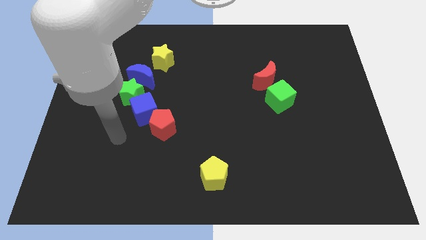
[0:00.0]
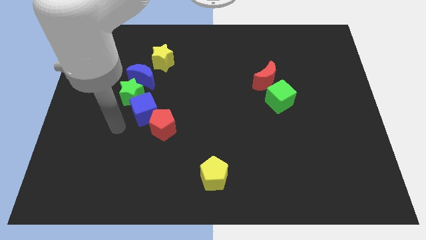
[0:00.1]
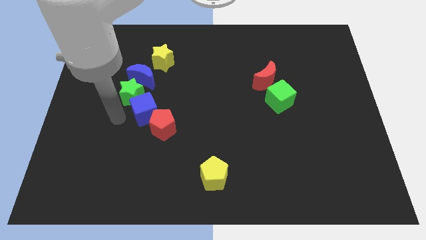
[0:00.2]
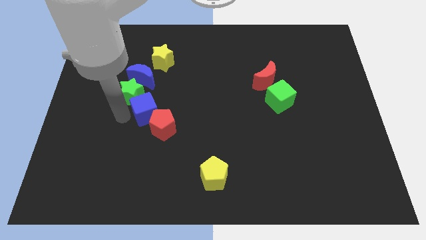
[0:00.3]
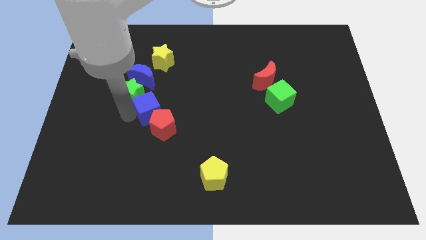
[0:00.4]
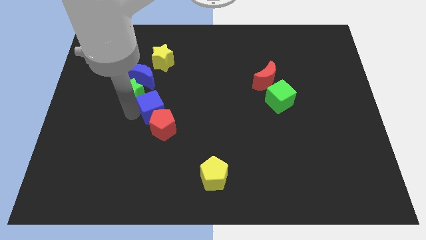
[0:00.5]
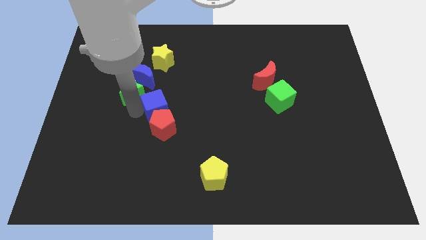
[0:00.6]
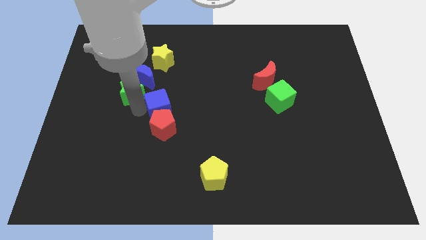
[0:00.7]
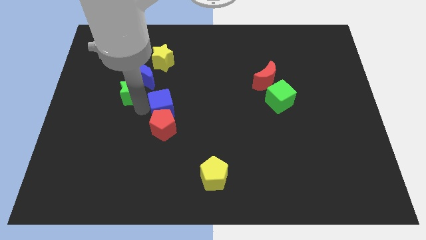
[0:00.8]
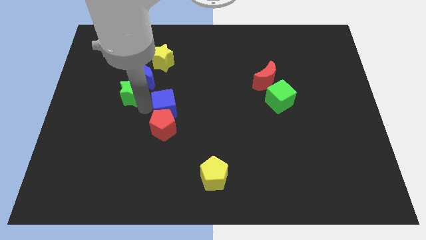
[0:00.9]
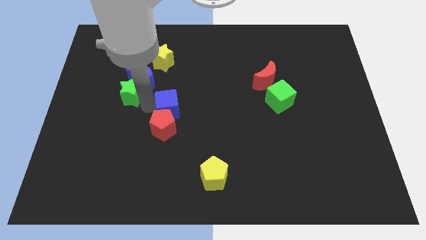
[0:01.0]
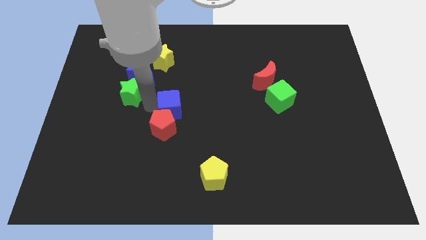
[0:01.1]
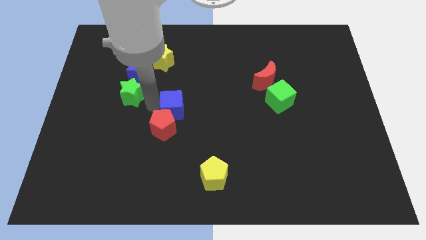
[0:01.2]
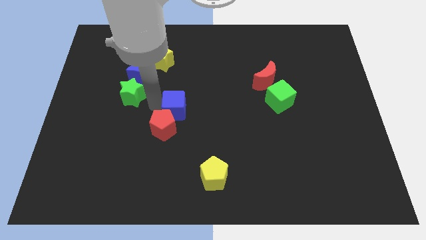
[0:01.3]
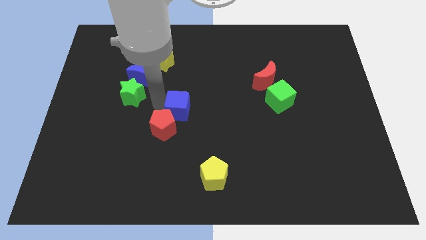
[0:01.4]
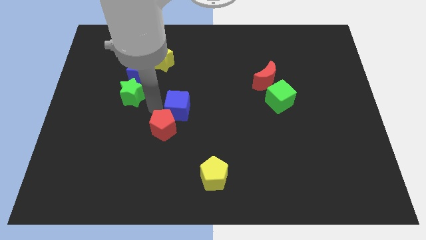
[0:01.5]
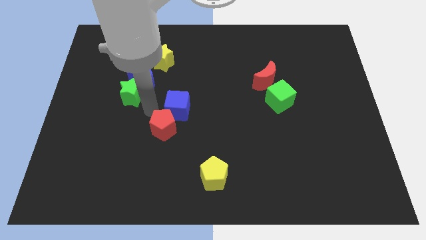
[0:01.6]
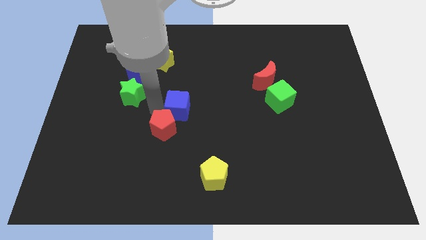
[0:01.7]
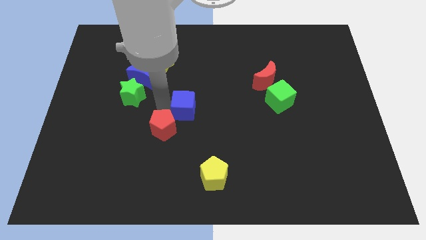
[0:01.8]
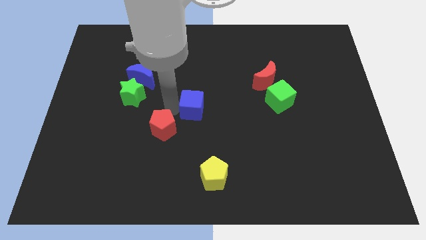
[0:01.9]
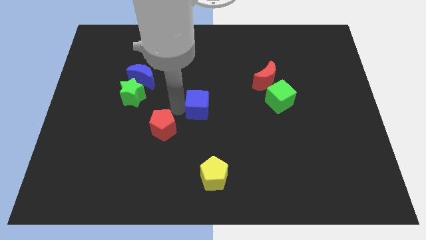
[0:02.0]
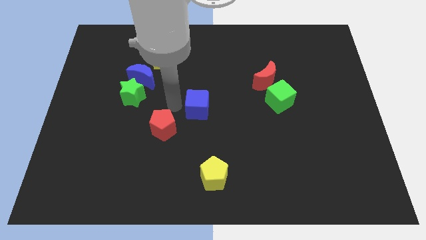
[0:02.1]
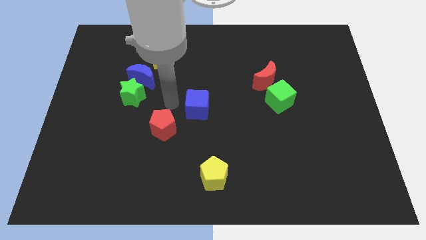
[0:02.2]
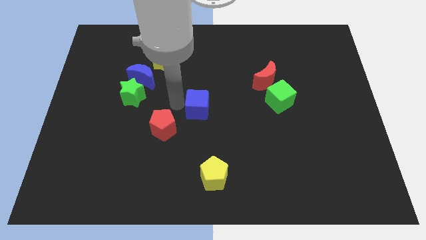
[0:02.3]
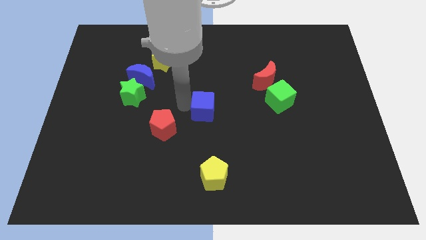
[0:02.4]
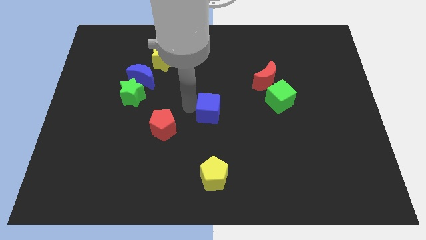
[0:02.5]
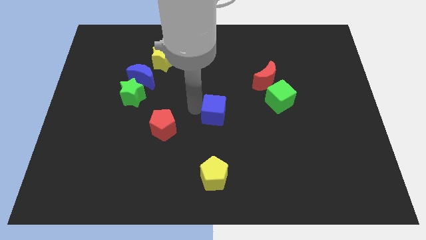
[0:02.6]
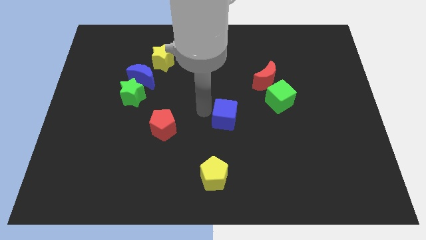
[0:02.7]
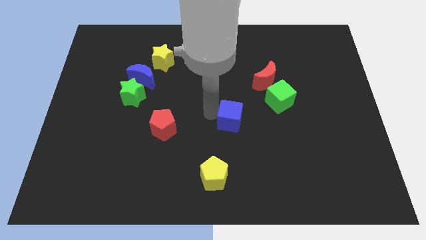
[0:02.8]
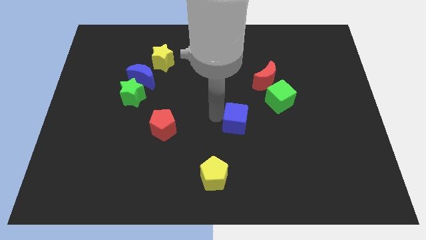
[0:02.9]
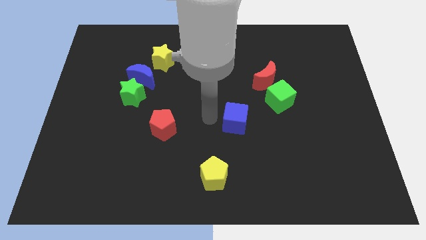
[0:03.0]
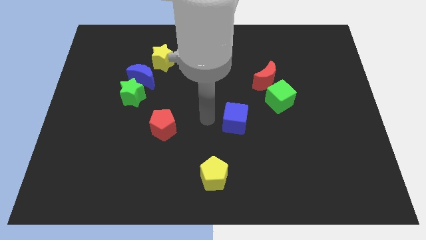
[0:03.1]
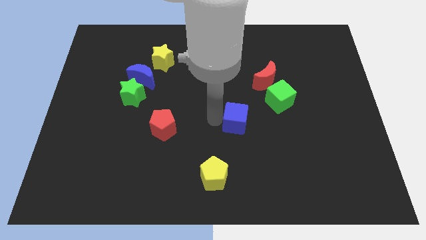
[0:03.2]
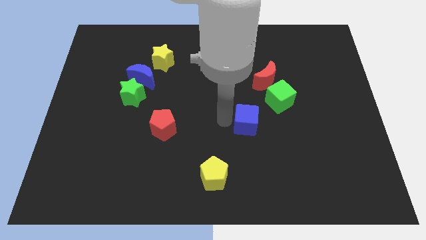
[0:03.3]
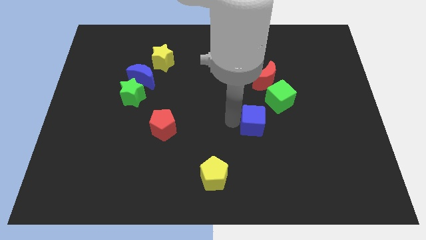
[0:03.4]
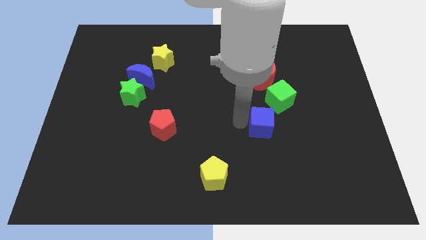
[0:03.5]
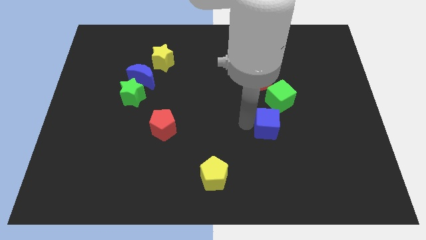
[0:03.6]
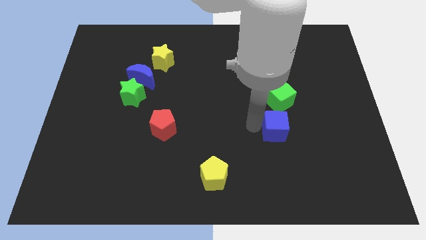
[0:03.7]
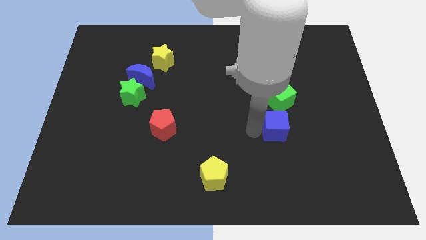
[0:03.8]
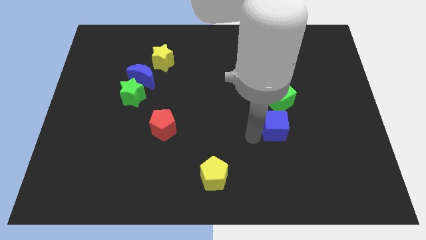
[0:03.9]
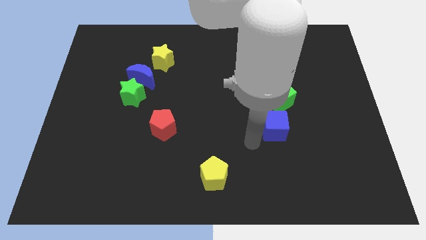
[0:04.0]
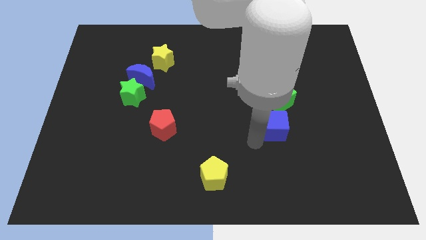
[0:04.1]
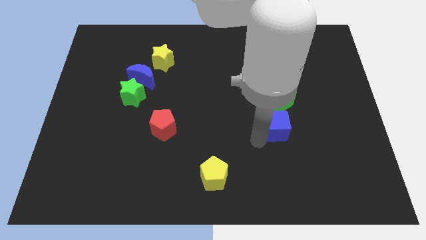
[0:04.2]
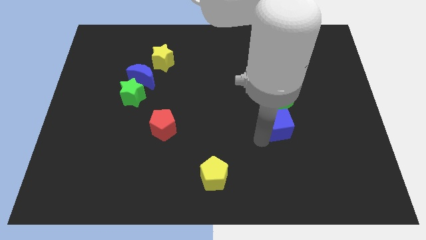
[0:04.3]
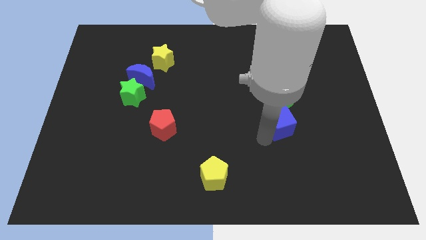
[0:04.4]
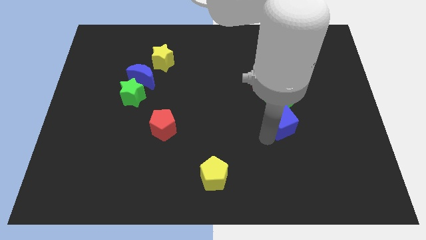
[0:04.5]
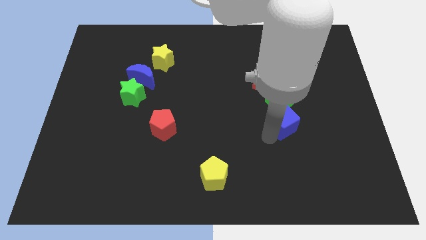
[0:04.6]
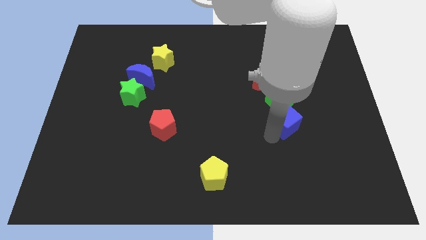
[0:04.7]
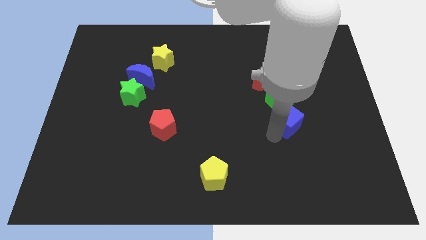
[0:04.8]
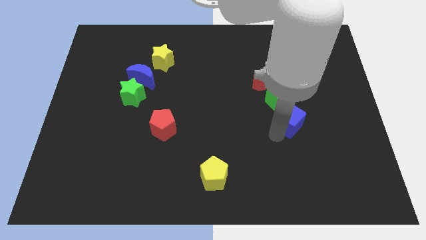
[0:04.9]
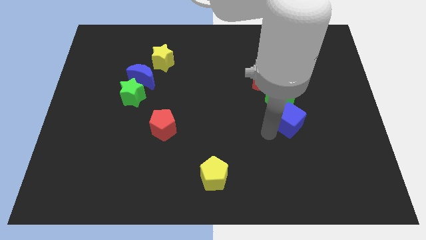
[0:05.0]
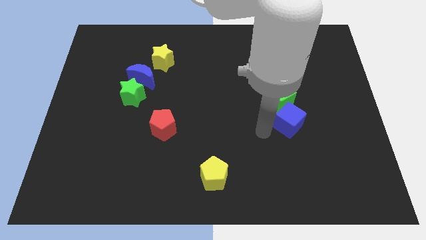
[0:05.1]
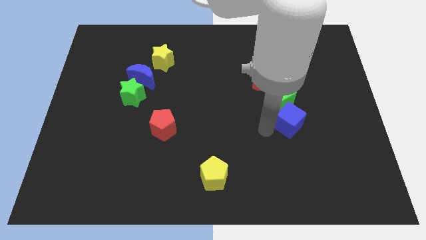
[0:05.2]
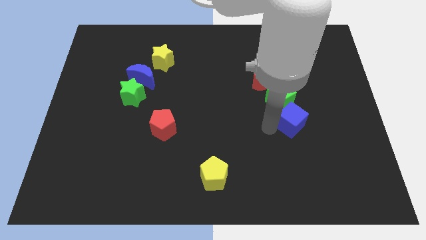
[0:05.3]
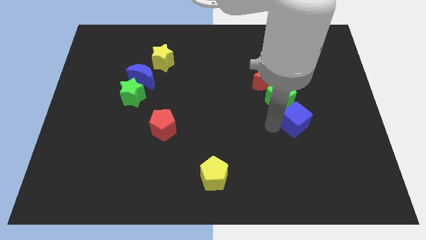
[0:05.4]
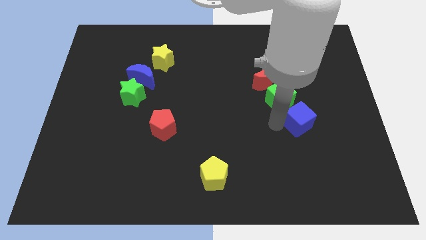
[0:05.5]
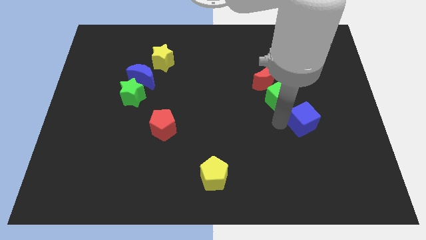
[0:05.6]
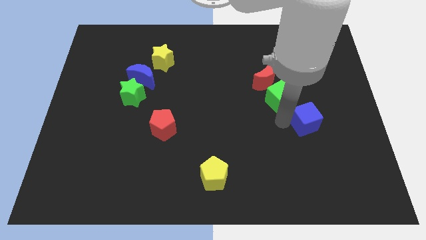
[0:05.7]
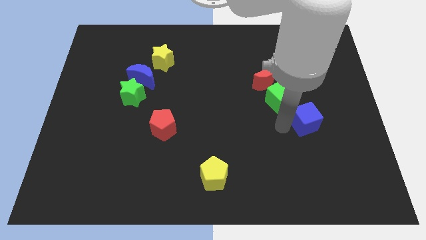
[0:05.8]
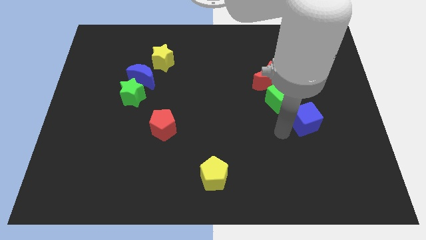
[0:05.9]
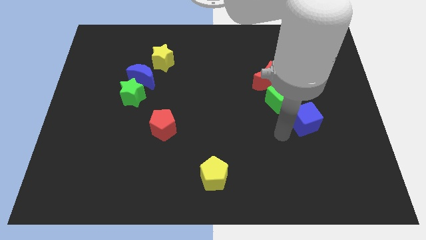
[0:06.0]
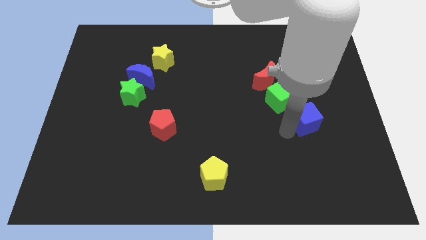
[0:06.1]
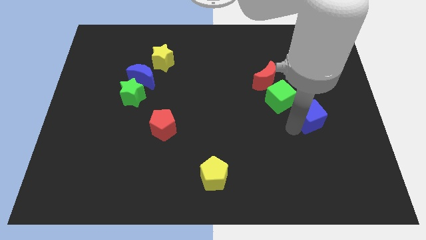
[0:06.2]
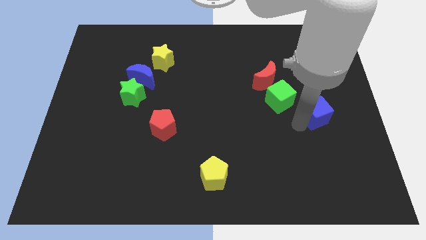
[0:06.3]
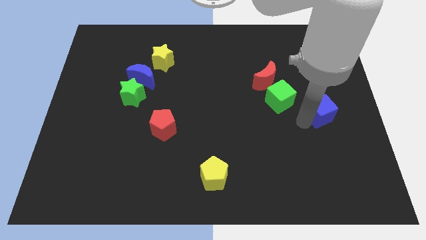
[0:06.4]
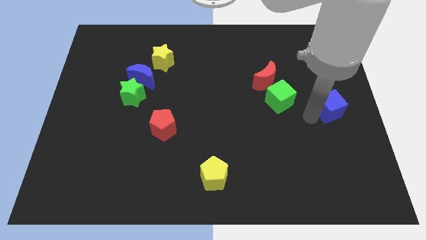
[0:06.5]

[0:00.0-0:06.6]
slide the blue cube to the center right
